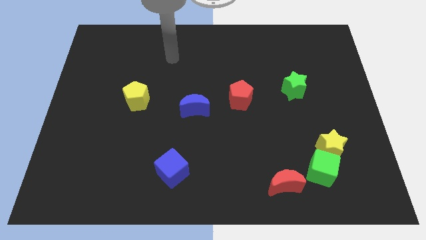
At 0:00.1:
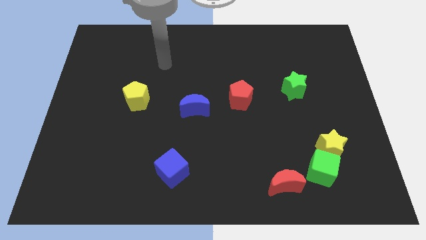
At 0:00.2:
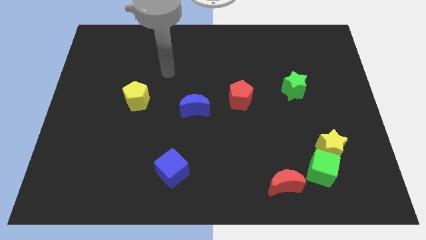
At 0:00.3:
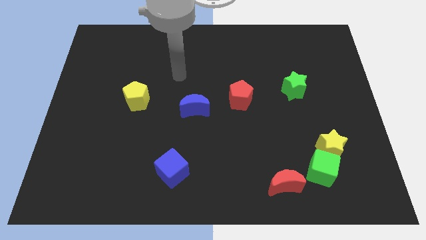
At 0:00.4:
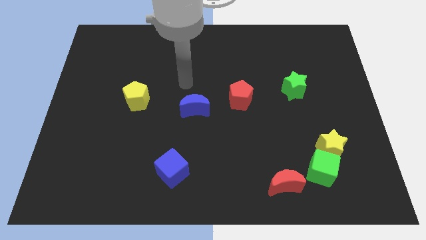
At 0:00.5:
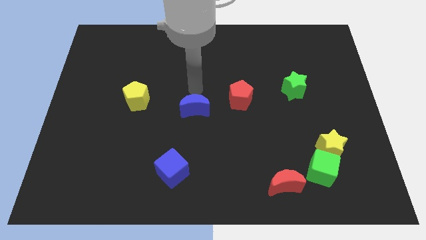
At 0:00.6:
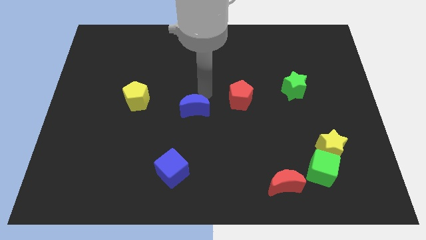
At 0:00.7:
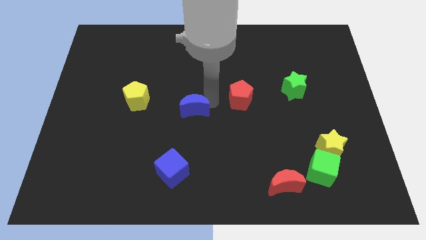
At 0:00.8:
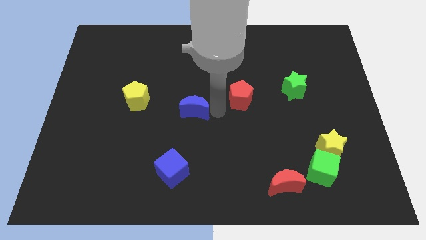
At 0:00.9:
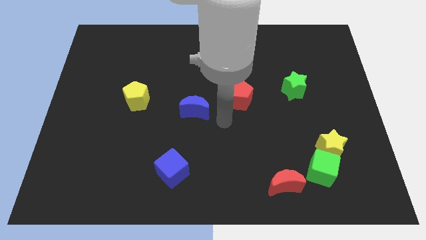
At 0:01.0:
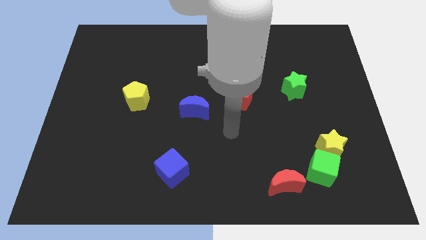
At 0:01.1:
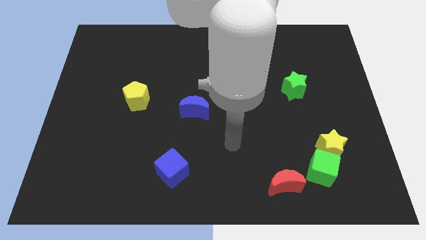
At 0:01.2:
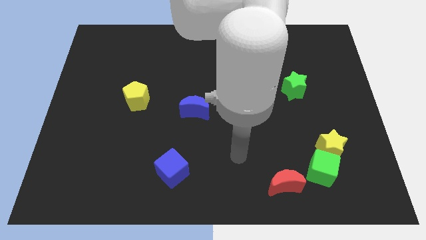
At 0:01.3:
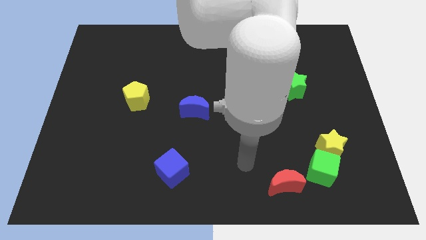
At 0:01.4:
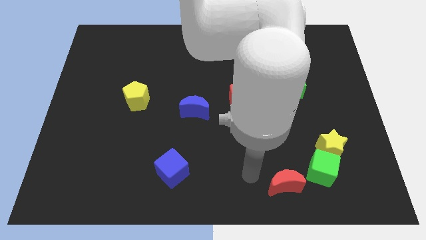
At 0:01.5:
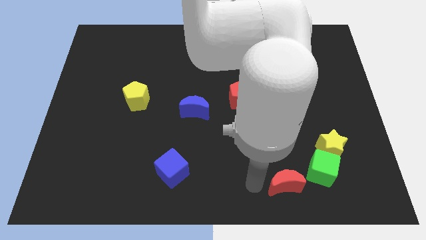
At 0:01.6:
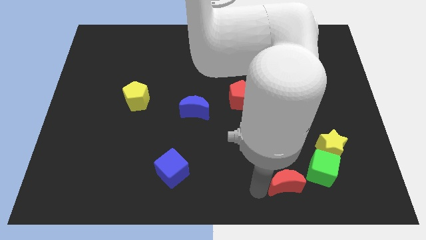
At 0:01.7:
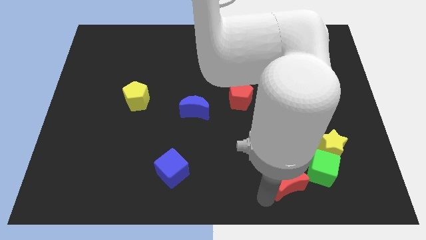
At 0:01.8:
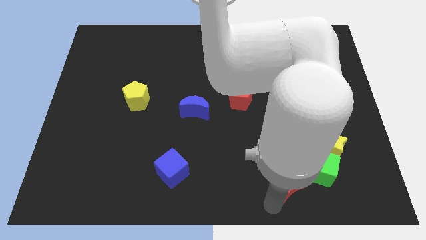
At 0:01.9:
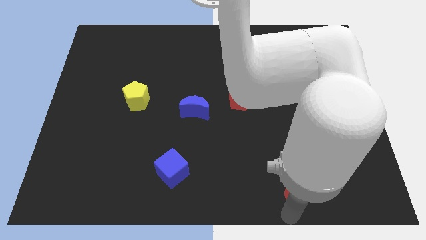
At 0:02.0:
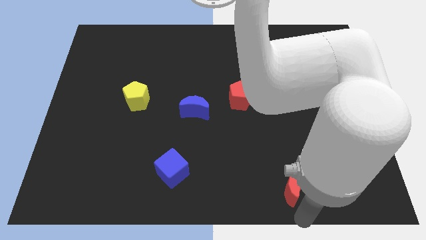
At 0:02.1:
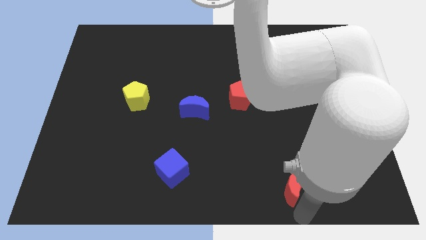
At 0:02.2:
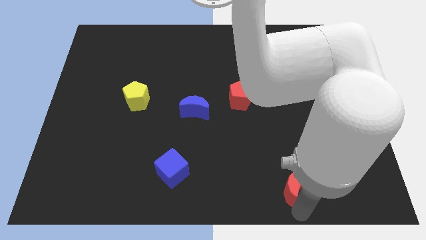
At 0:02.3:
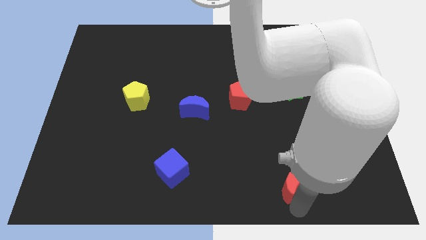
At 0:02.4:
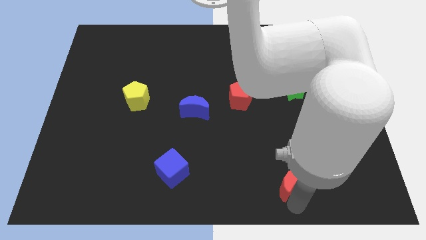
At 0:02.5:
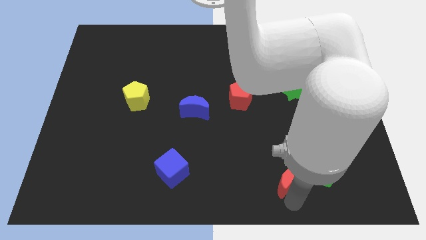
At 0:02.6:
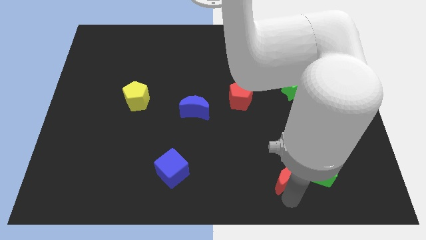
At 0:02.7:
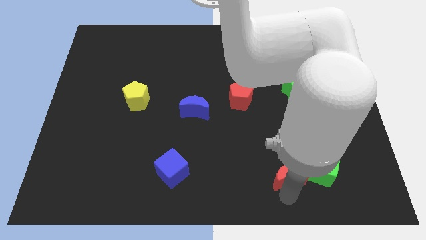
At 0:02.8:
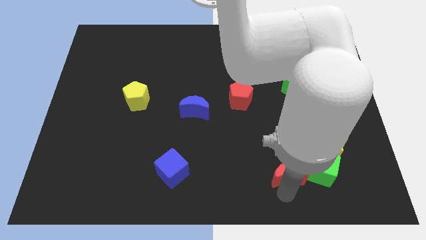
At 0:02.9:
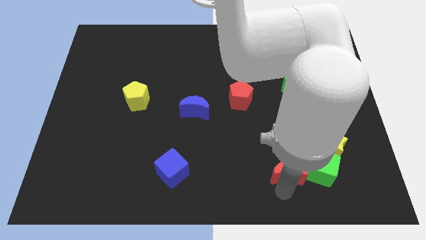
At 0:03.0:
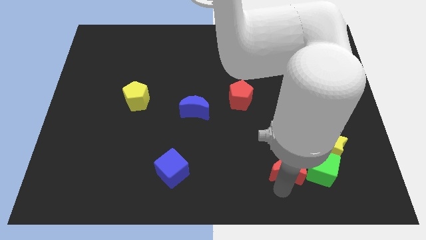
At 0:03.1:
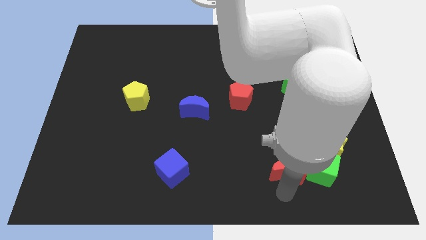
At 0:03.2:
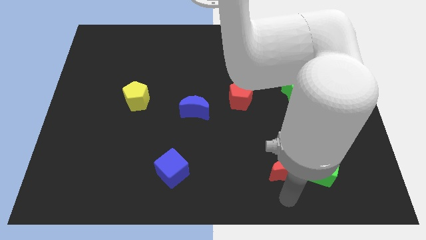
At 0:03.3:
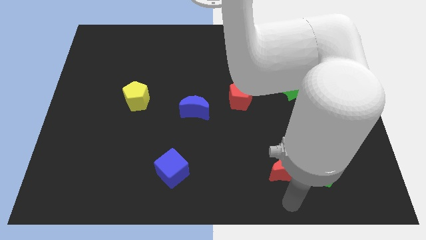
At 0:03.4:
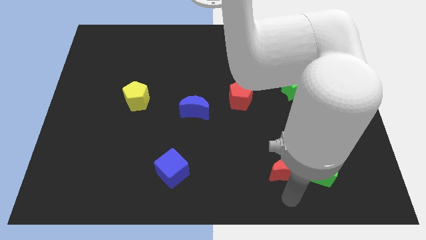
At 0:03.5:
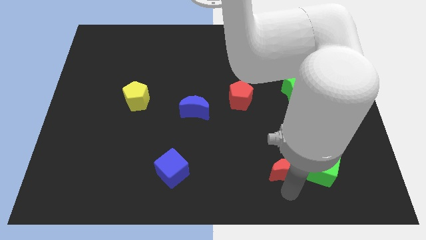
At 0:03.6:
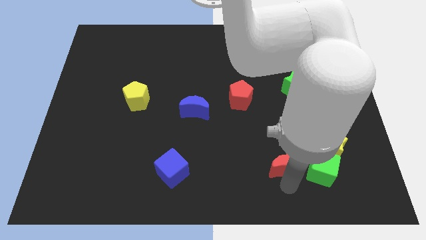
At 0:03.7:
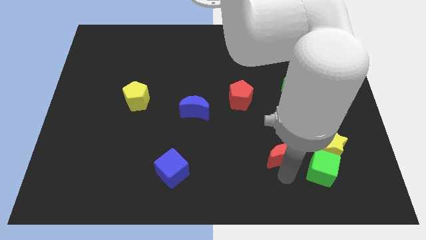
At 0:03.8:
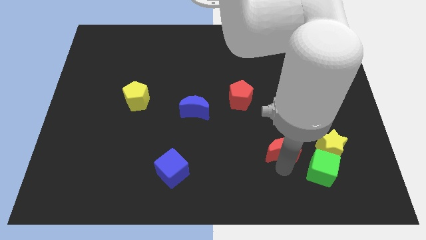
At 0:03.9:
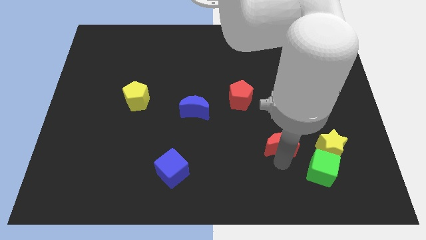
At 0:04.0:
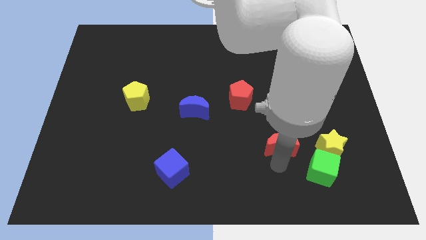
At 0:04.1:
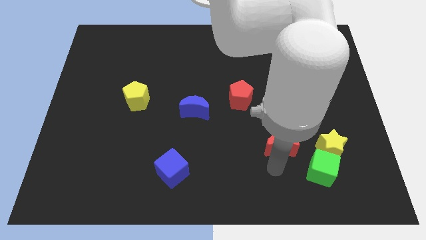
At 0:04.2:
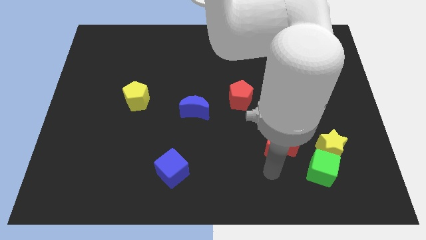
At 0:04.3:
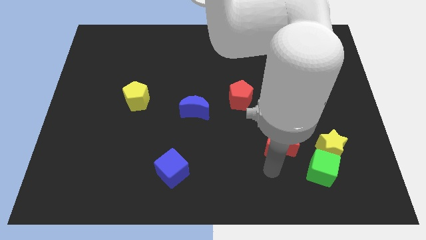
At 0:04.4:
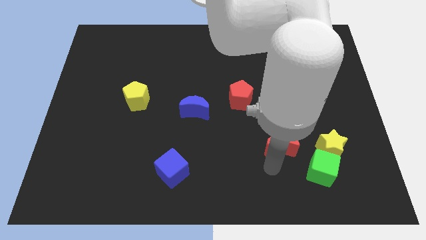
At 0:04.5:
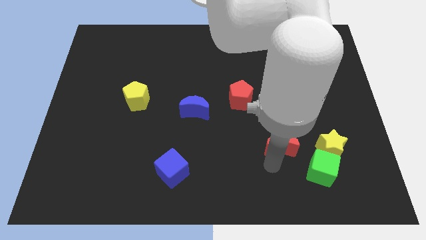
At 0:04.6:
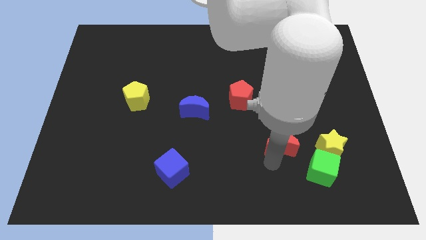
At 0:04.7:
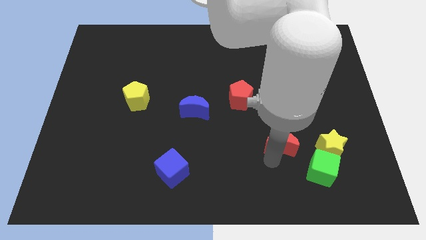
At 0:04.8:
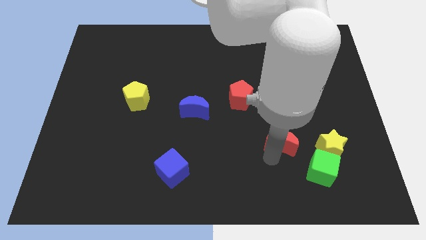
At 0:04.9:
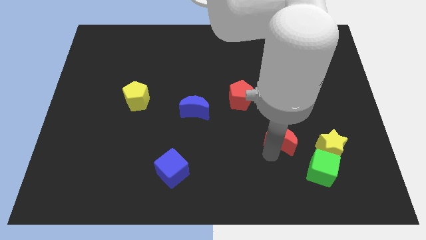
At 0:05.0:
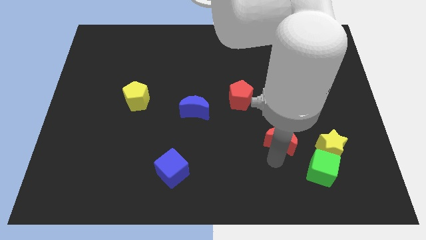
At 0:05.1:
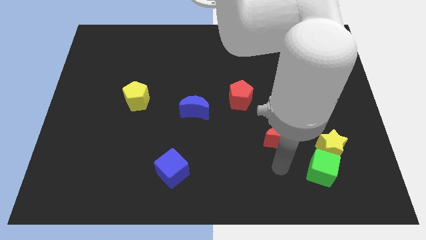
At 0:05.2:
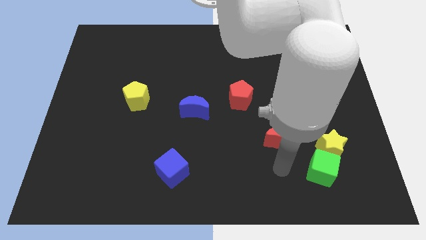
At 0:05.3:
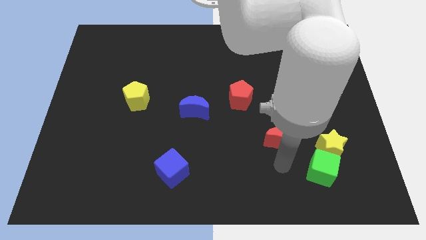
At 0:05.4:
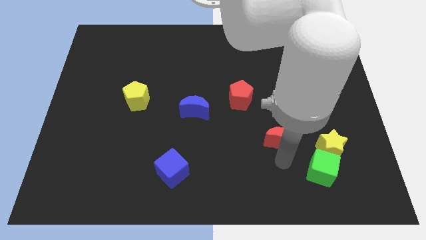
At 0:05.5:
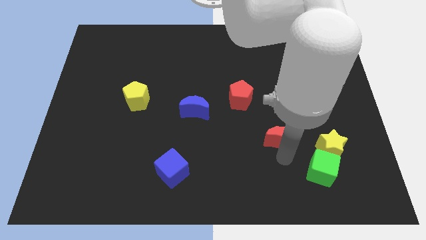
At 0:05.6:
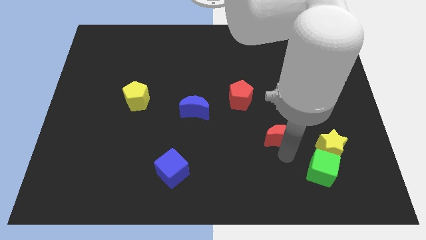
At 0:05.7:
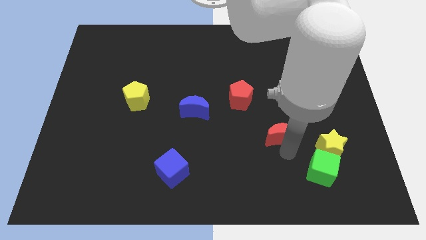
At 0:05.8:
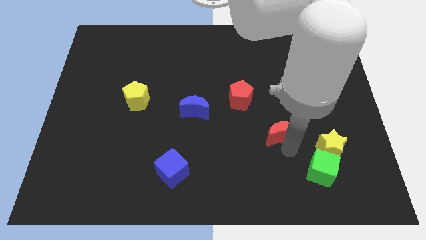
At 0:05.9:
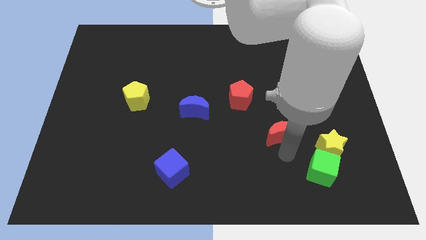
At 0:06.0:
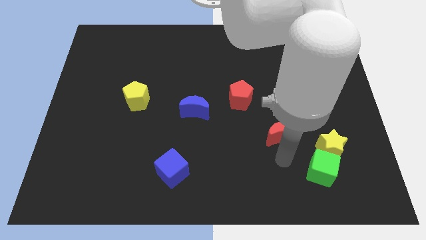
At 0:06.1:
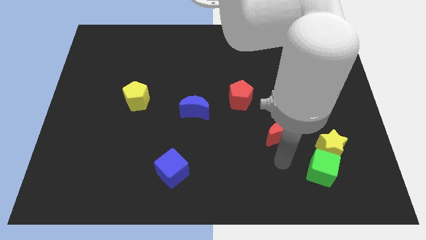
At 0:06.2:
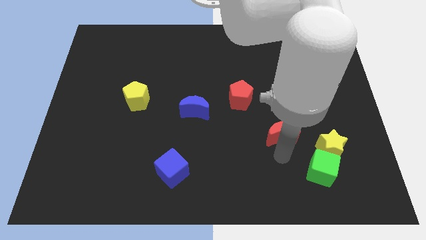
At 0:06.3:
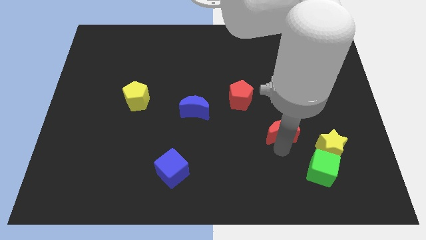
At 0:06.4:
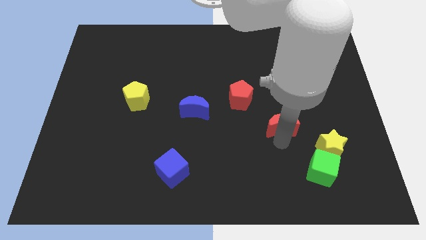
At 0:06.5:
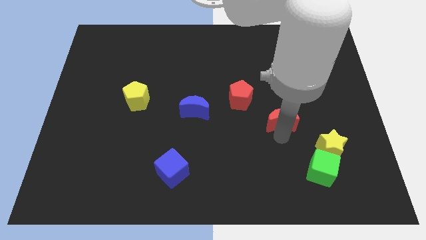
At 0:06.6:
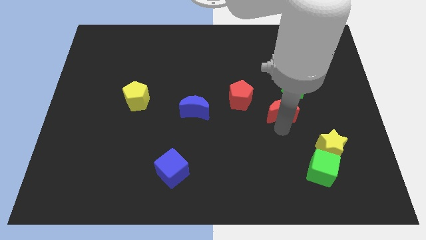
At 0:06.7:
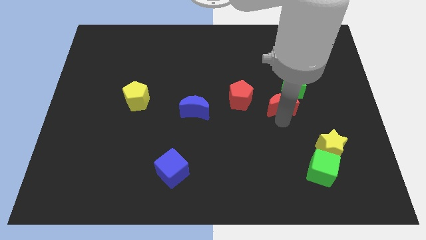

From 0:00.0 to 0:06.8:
push the red moon upwards

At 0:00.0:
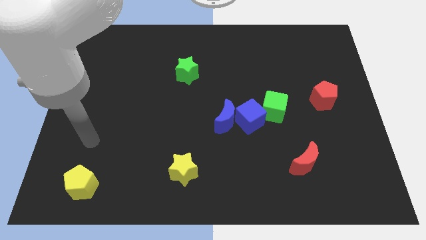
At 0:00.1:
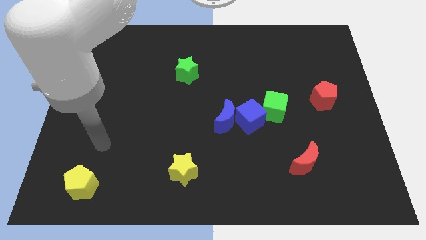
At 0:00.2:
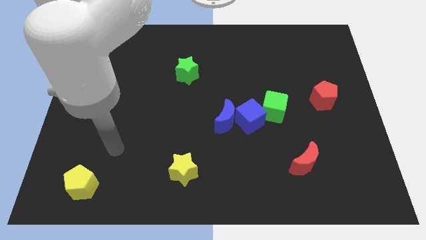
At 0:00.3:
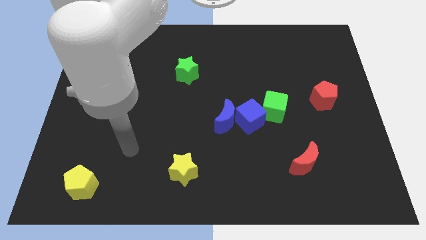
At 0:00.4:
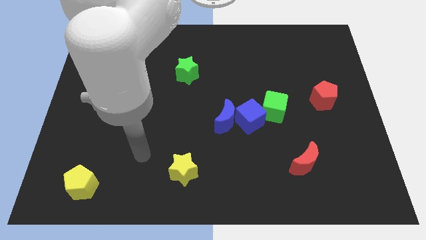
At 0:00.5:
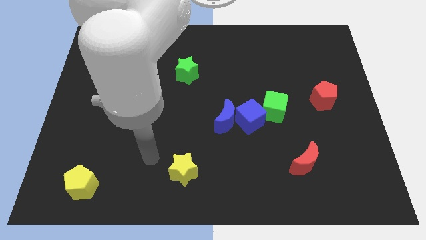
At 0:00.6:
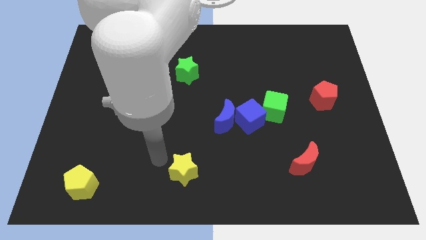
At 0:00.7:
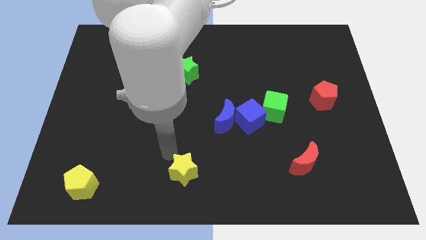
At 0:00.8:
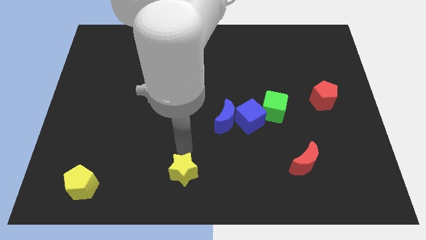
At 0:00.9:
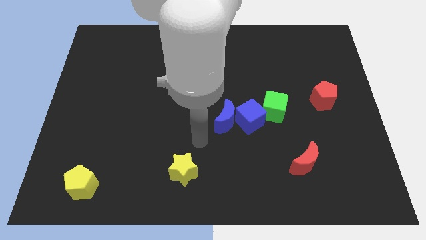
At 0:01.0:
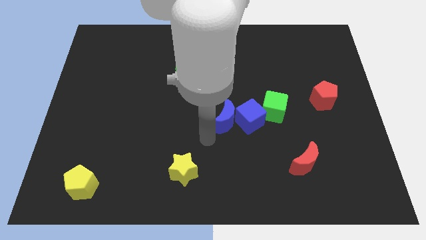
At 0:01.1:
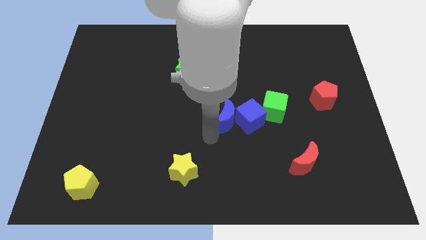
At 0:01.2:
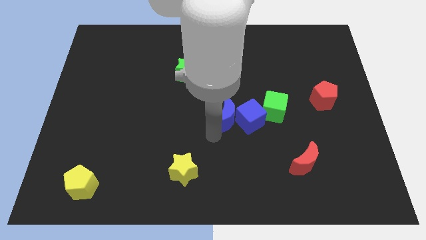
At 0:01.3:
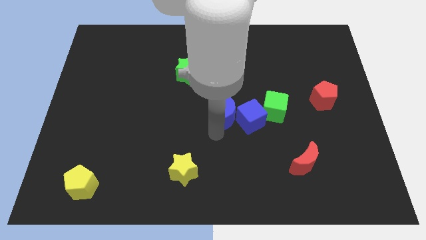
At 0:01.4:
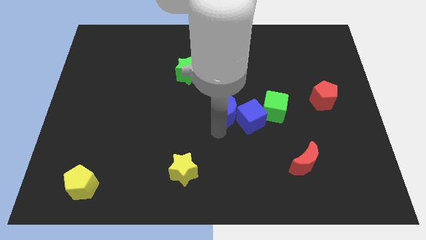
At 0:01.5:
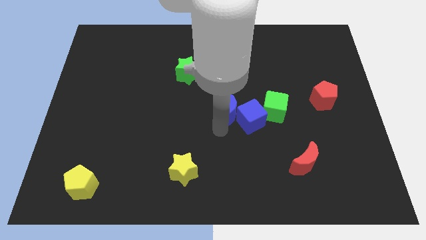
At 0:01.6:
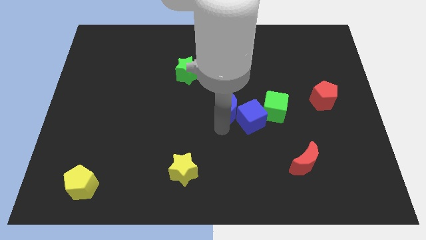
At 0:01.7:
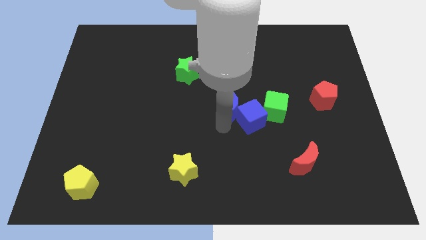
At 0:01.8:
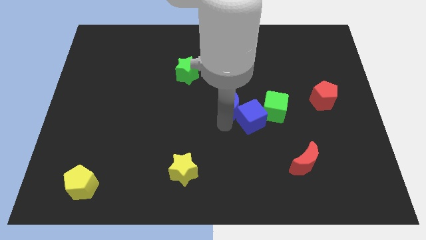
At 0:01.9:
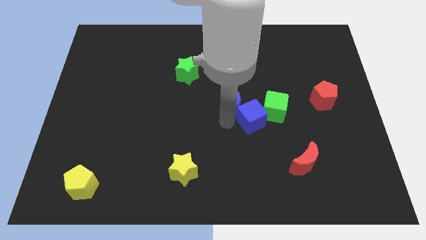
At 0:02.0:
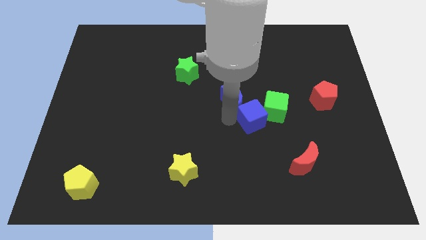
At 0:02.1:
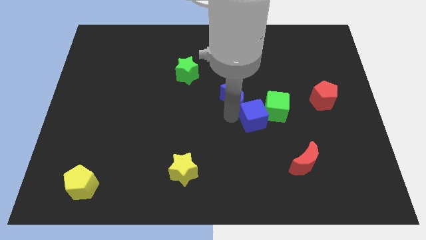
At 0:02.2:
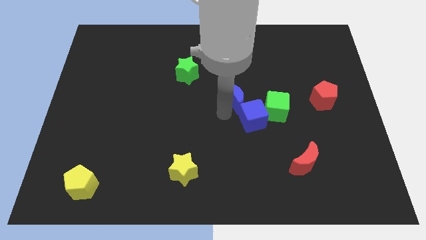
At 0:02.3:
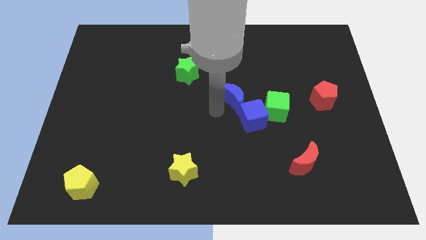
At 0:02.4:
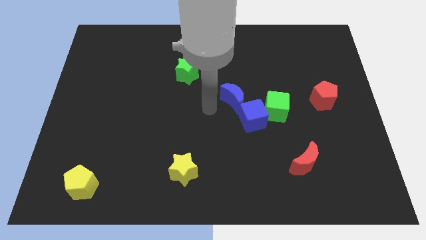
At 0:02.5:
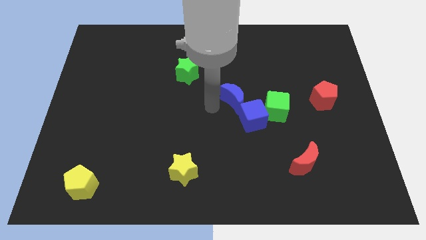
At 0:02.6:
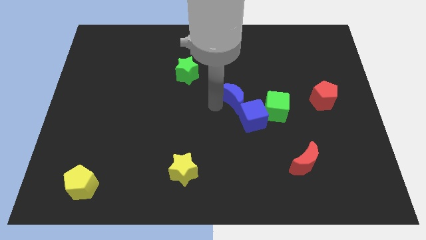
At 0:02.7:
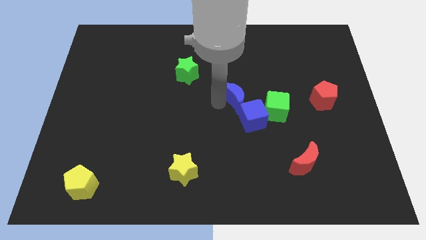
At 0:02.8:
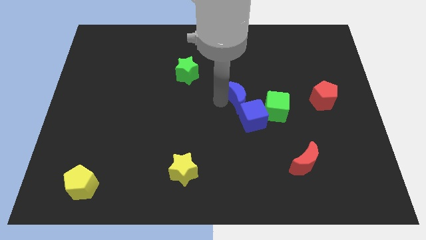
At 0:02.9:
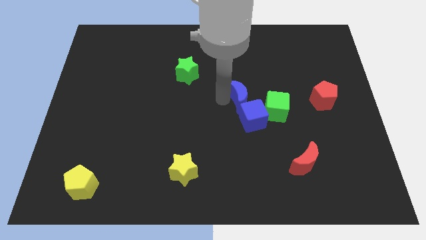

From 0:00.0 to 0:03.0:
slightly push the blue moon up and right
